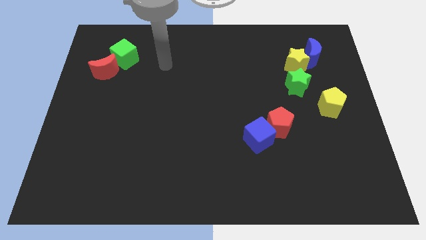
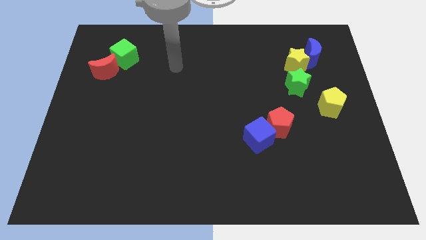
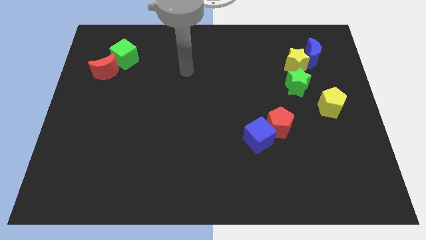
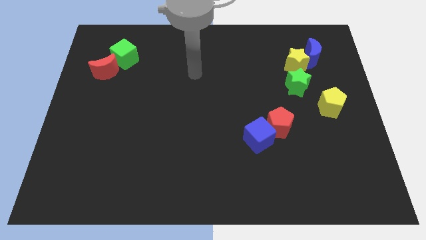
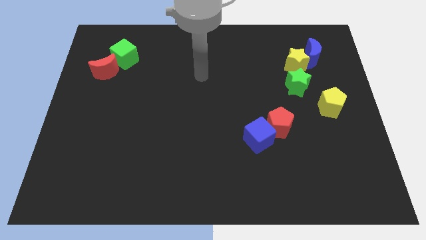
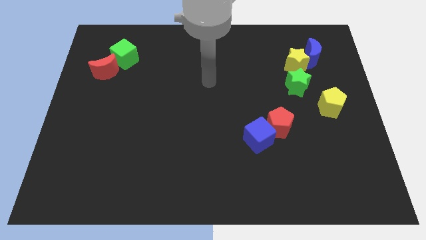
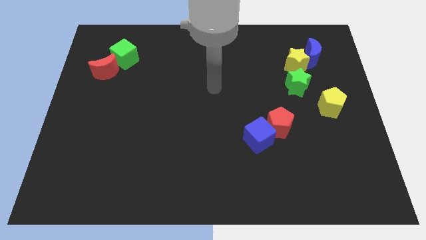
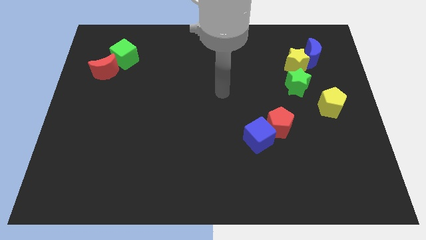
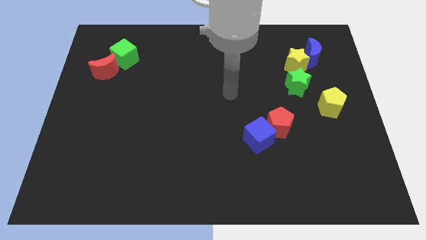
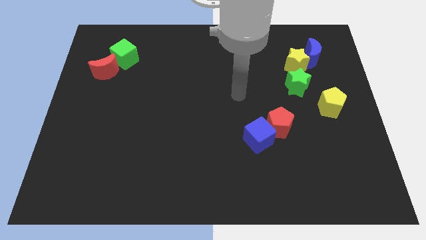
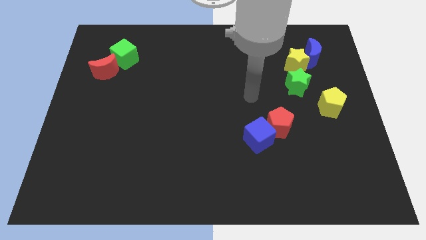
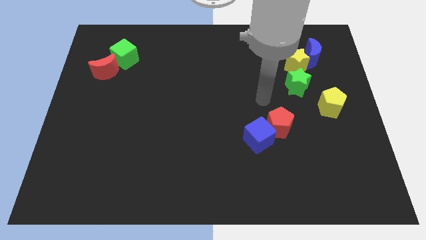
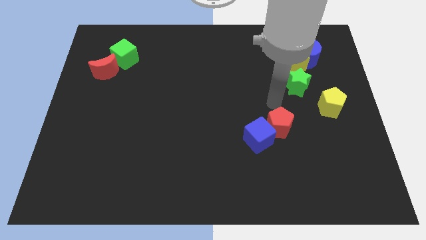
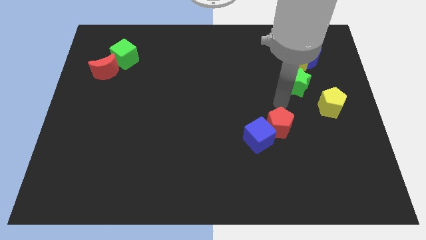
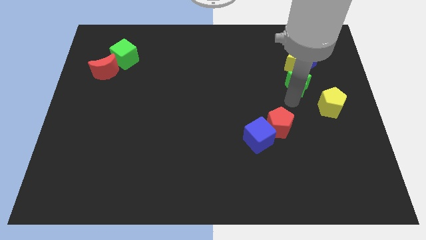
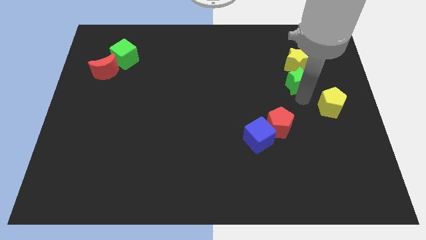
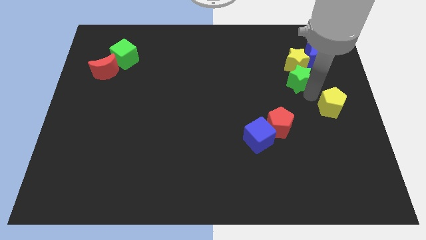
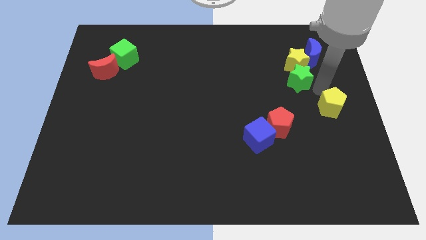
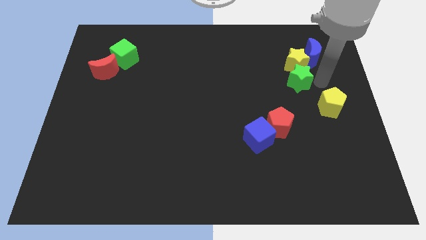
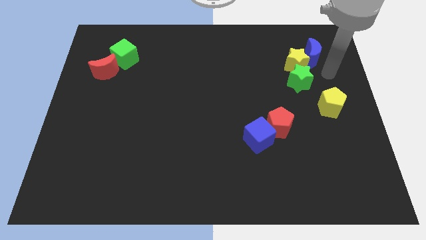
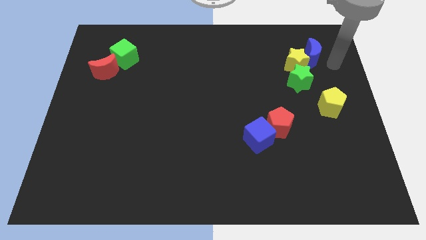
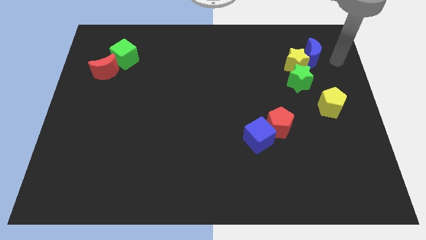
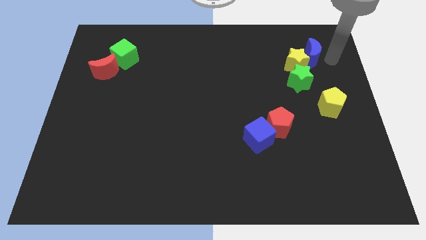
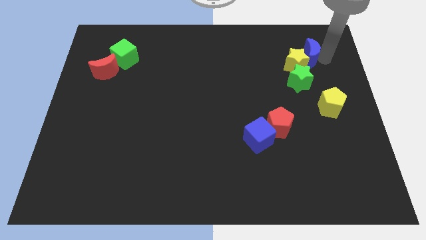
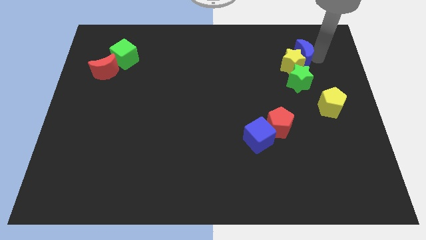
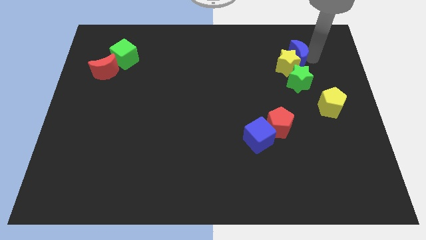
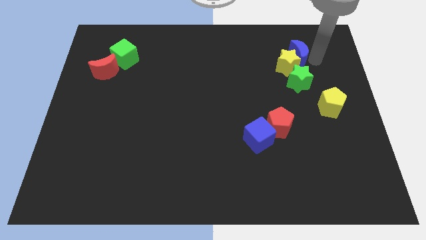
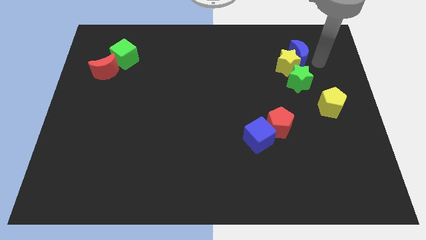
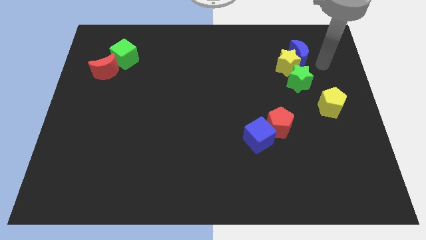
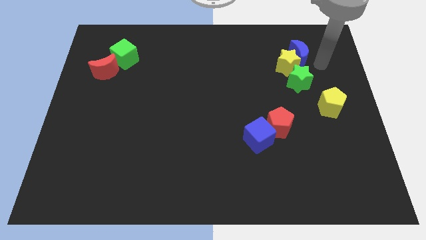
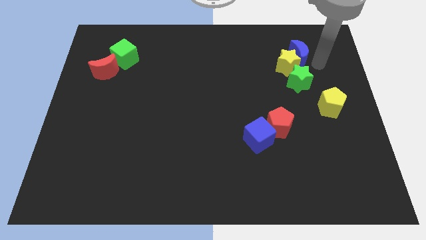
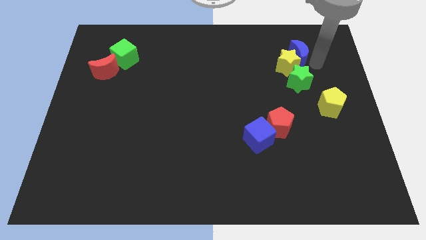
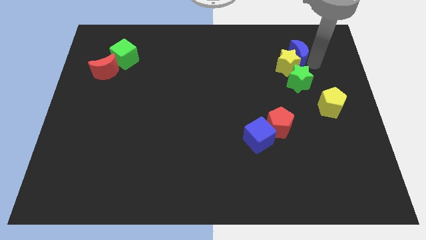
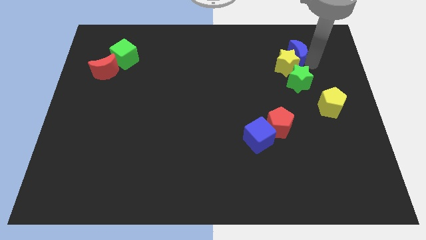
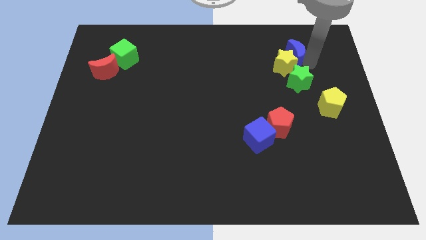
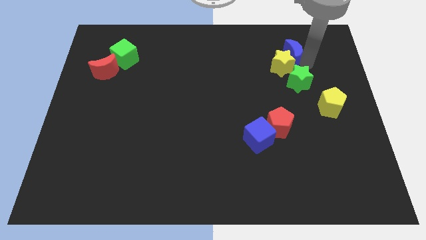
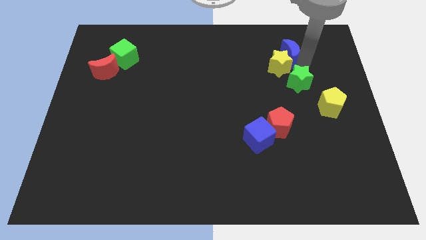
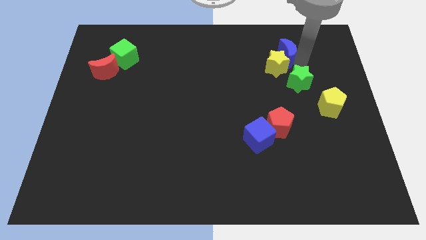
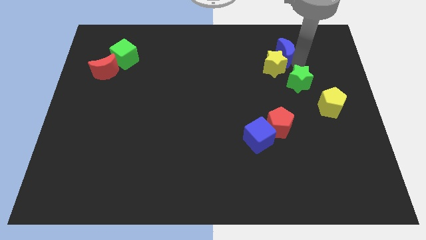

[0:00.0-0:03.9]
slightly slide the blue moon to the left

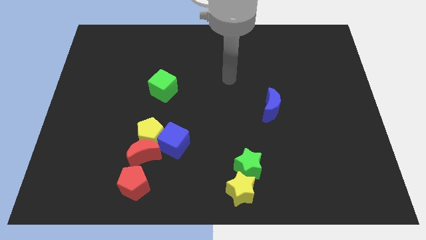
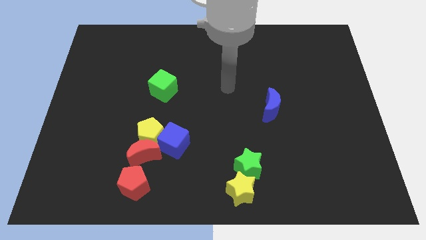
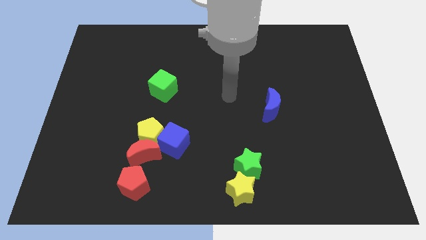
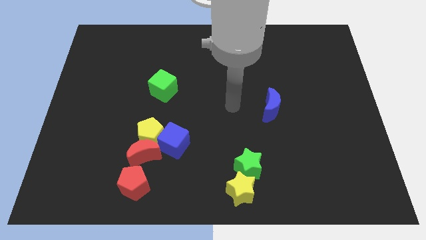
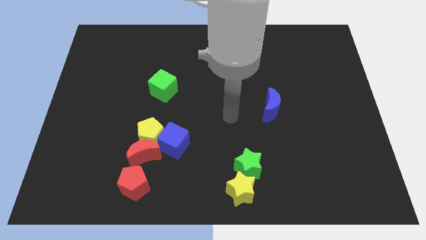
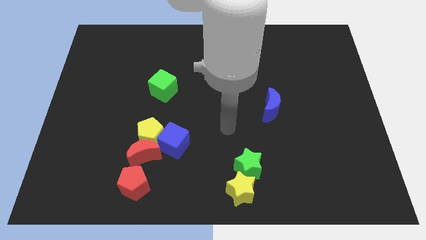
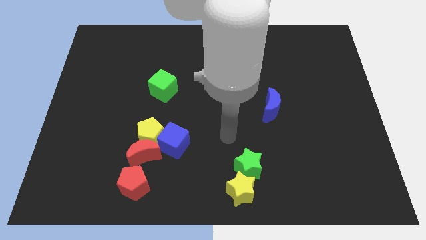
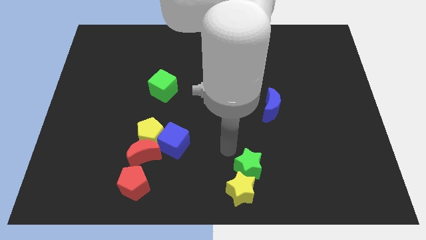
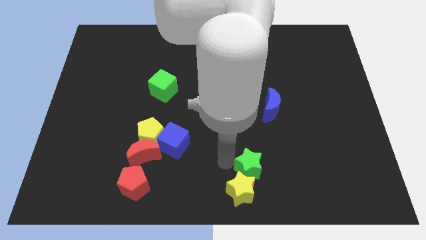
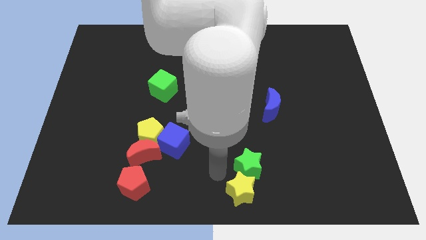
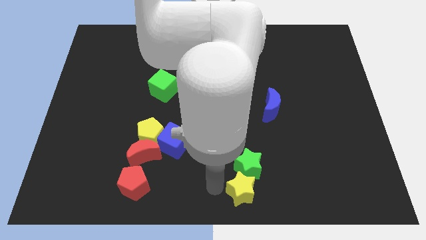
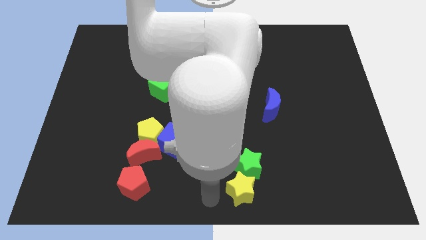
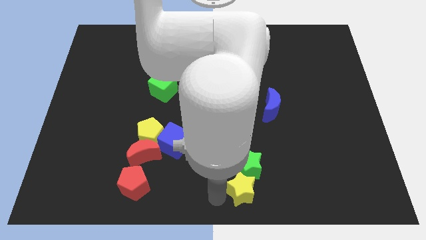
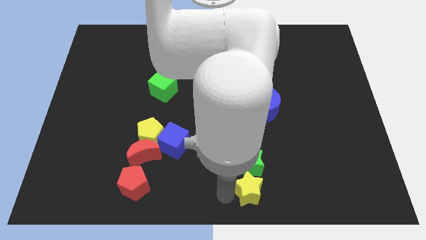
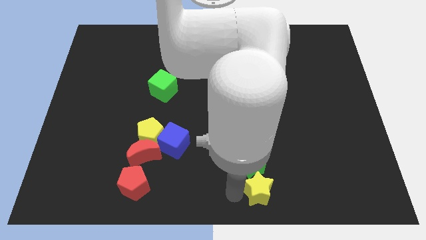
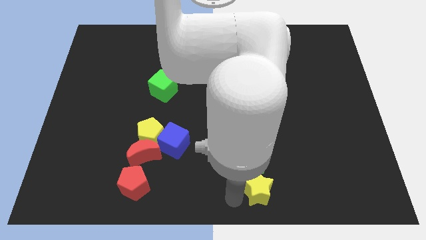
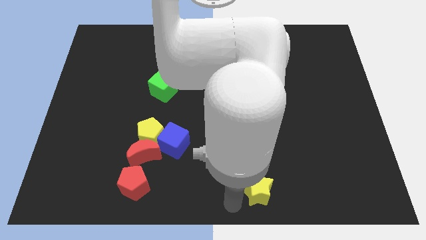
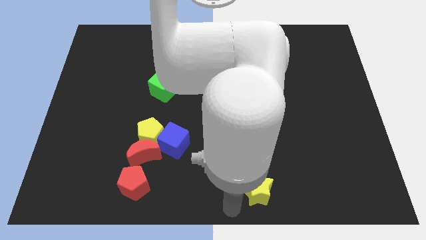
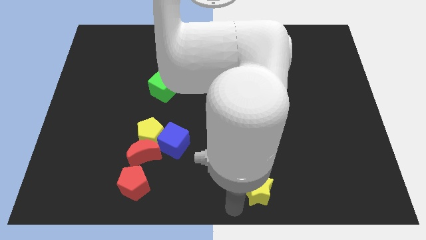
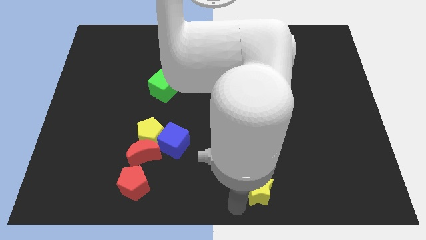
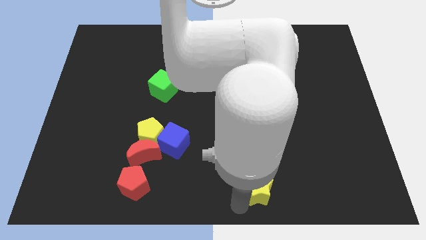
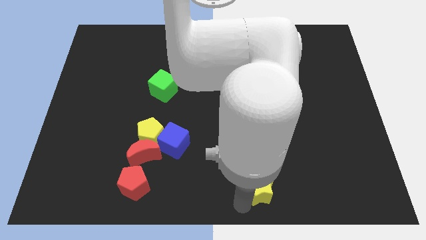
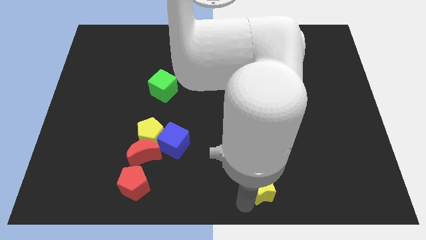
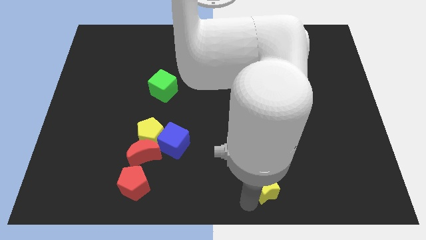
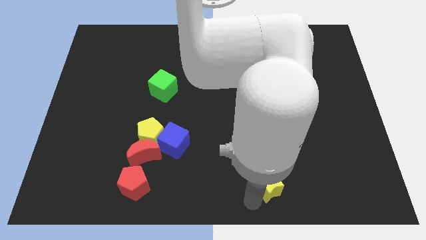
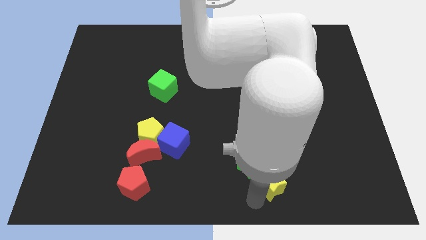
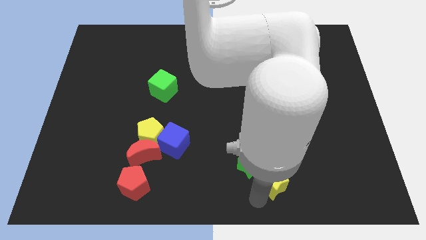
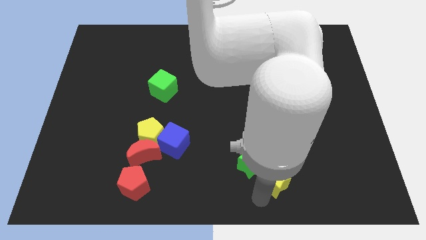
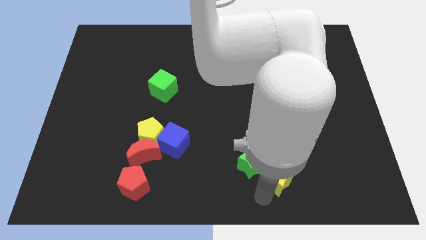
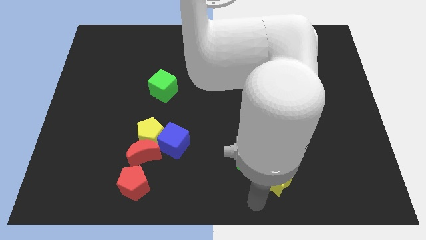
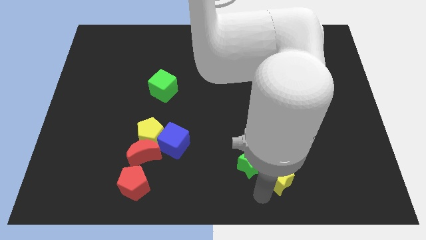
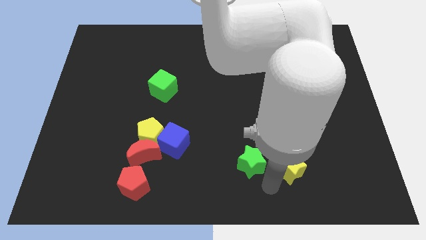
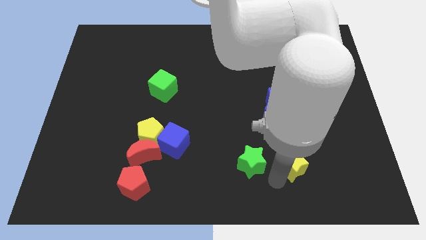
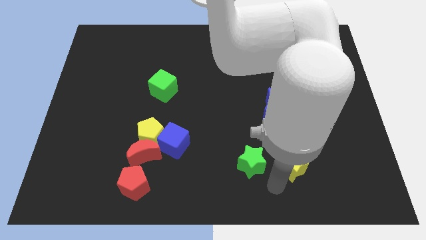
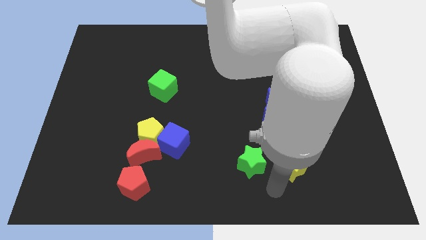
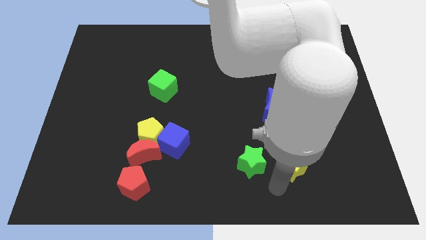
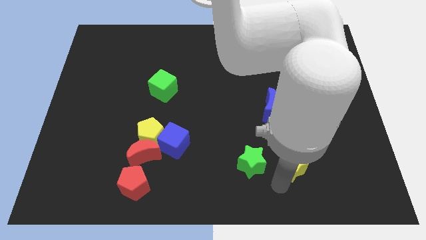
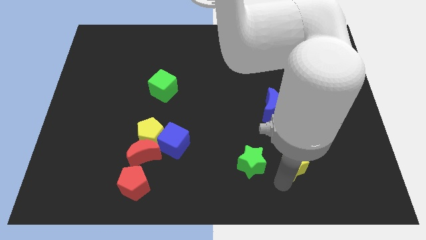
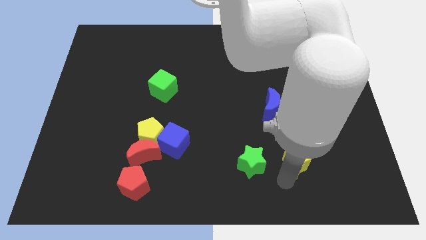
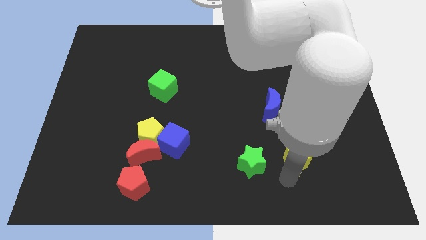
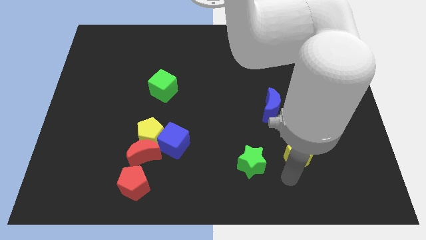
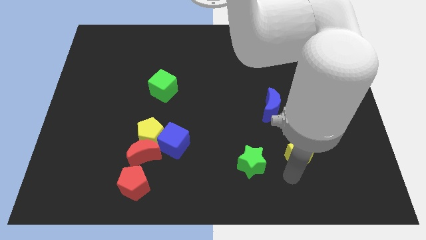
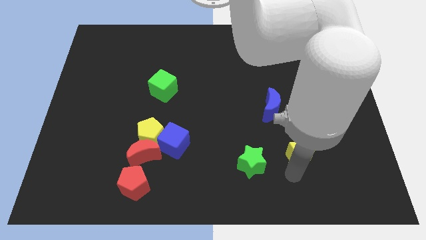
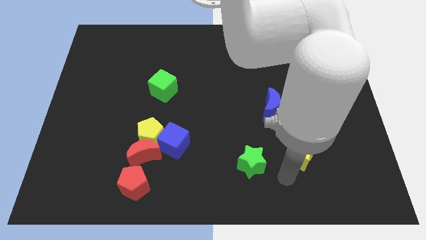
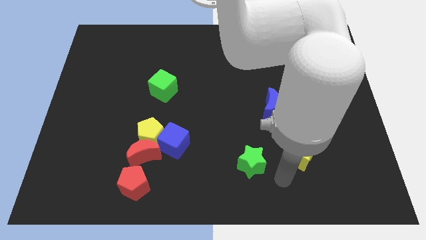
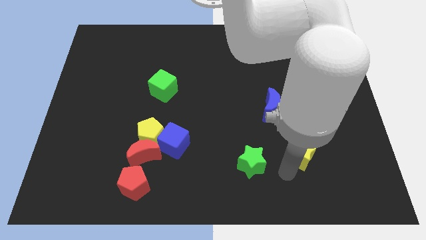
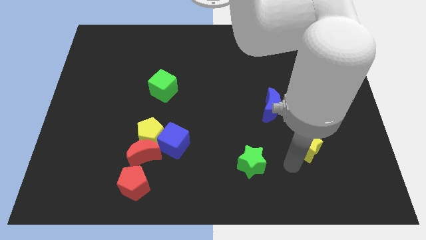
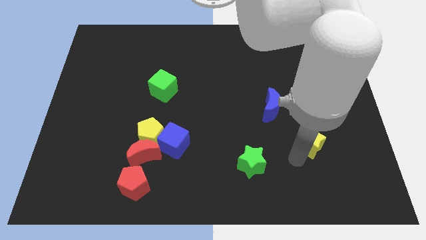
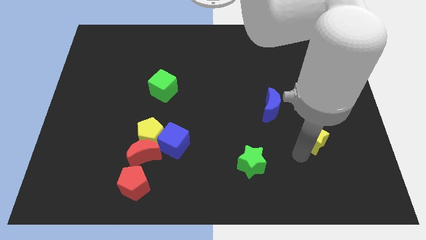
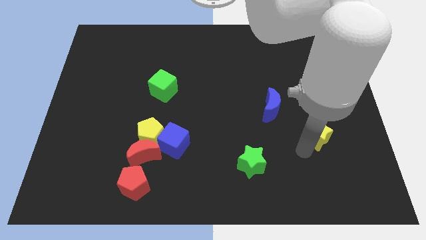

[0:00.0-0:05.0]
slide the yellow star upwards and right
